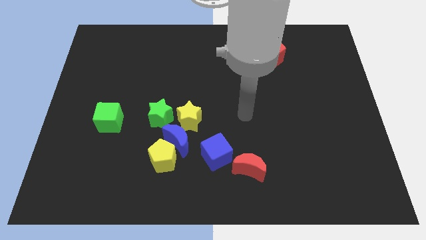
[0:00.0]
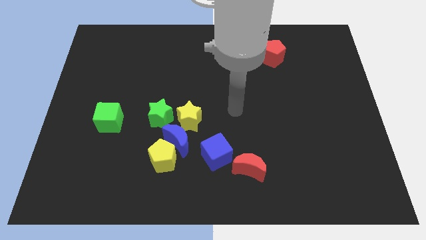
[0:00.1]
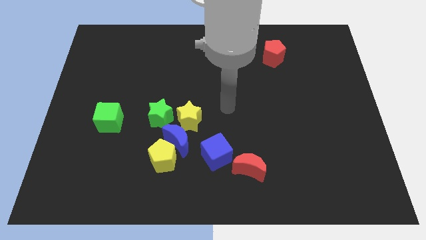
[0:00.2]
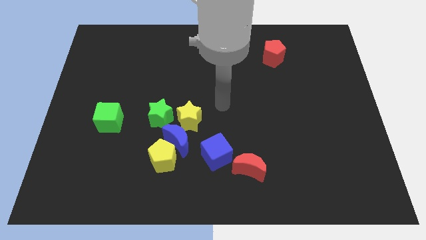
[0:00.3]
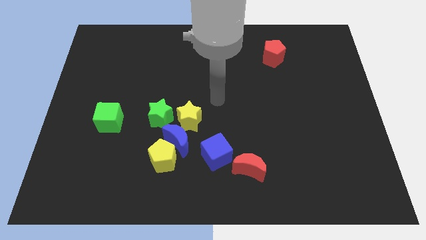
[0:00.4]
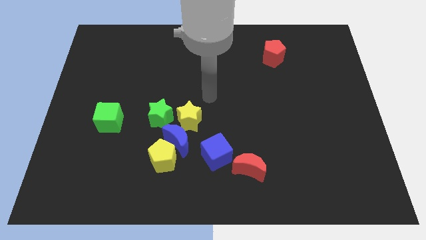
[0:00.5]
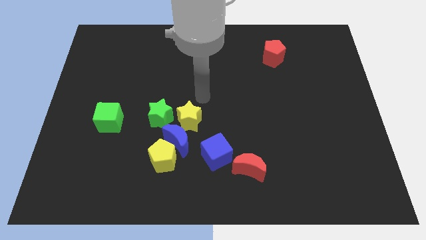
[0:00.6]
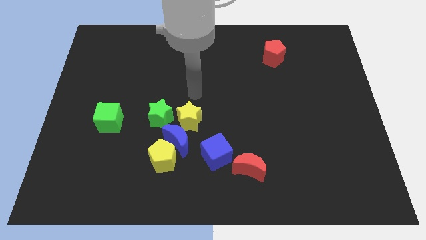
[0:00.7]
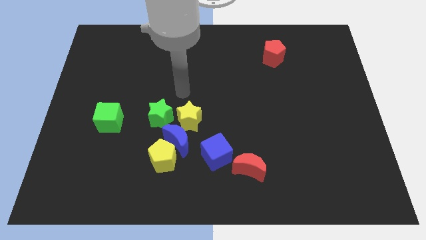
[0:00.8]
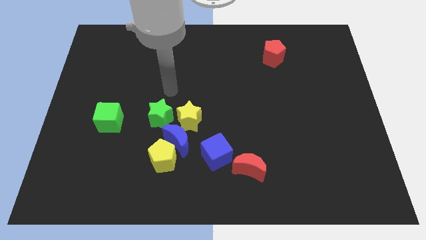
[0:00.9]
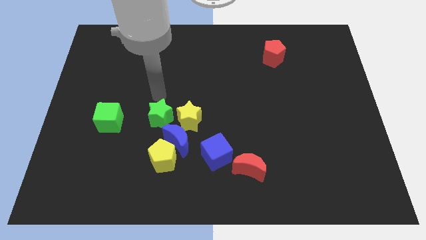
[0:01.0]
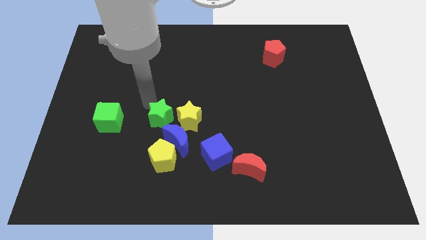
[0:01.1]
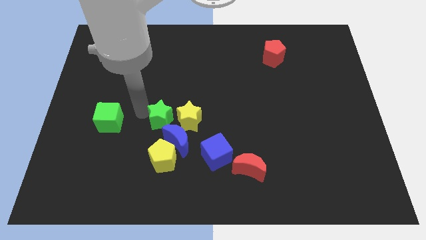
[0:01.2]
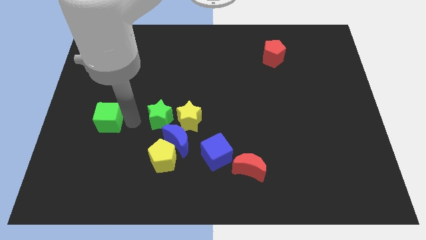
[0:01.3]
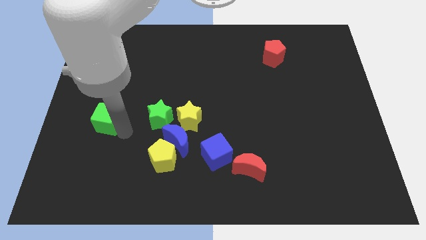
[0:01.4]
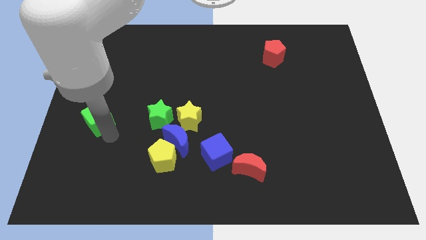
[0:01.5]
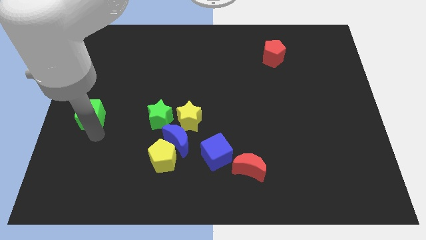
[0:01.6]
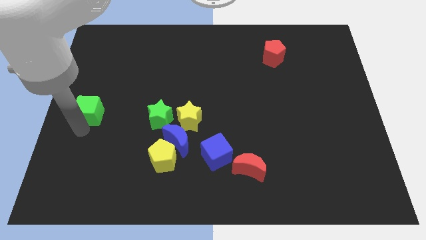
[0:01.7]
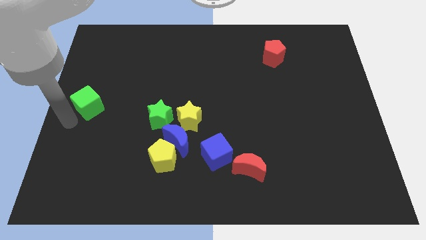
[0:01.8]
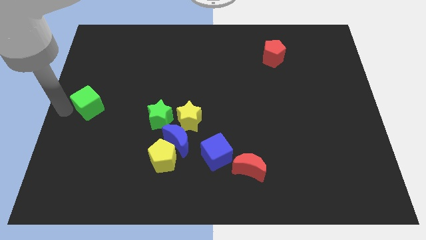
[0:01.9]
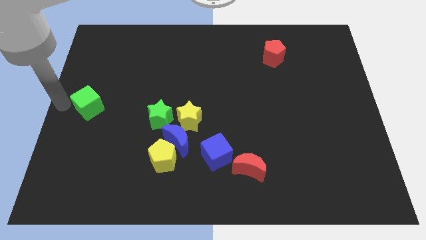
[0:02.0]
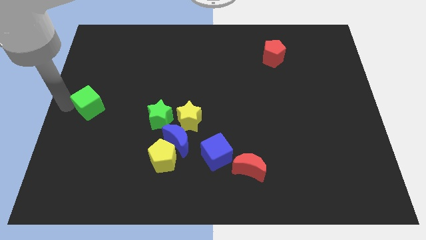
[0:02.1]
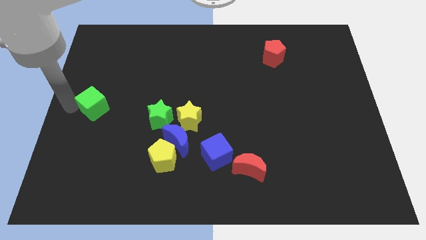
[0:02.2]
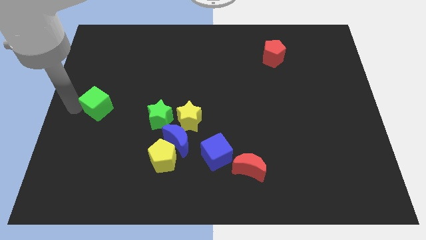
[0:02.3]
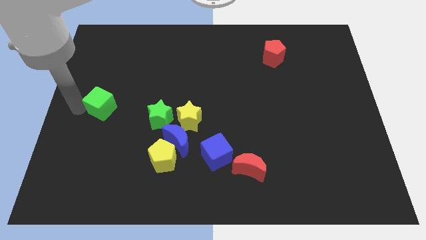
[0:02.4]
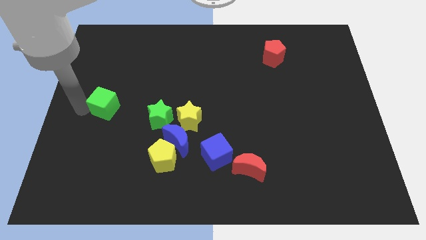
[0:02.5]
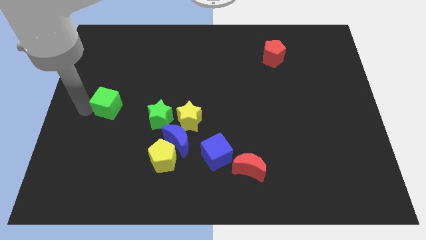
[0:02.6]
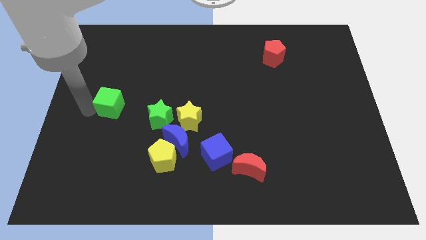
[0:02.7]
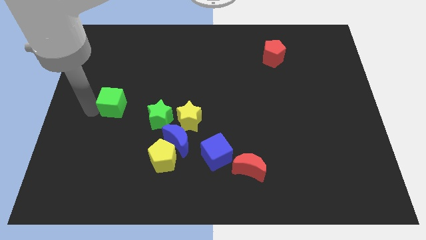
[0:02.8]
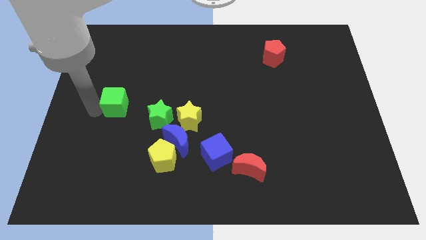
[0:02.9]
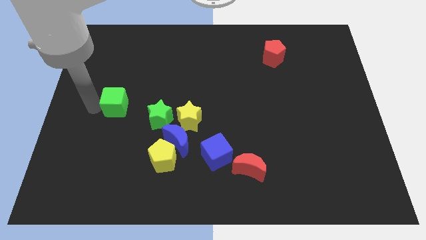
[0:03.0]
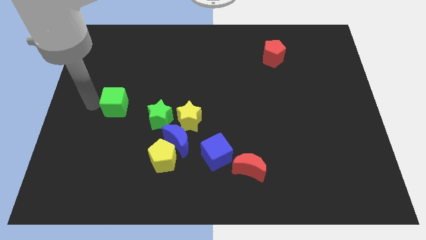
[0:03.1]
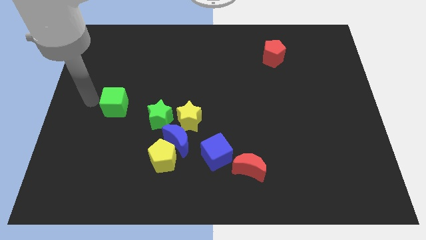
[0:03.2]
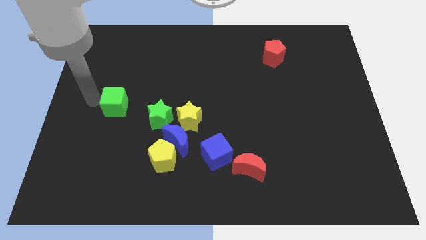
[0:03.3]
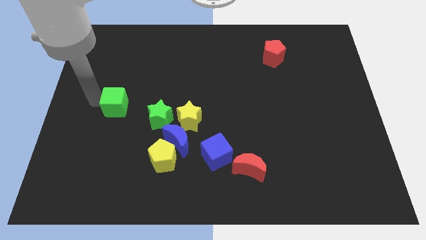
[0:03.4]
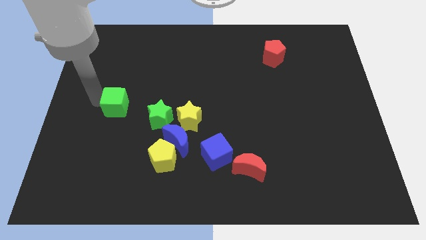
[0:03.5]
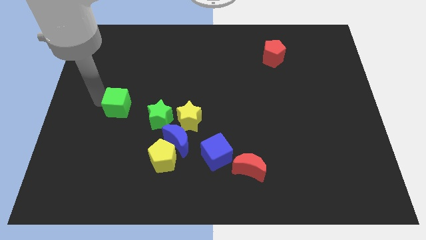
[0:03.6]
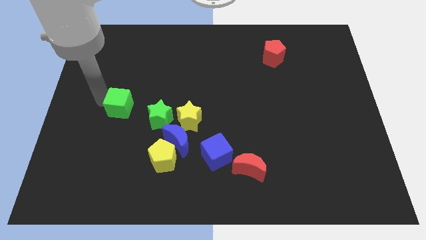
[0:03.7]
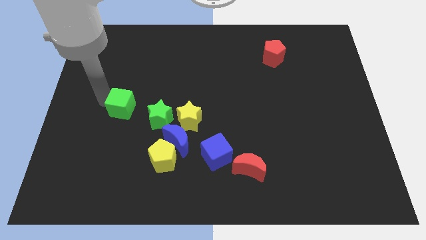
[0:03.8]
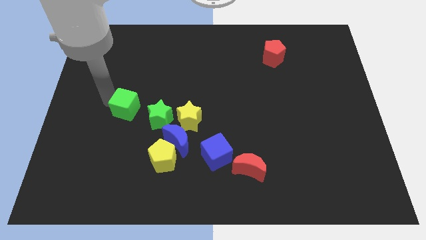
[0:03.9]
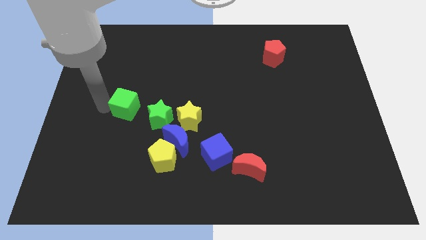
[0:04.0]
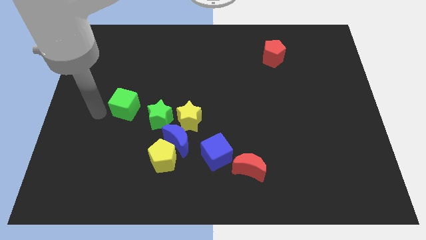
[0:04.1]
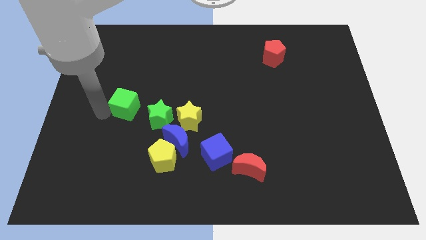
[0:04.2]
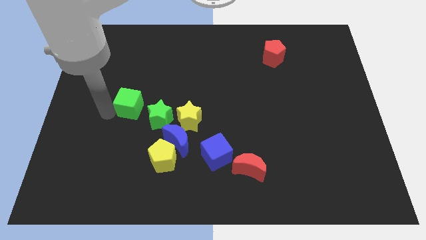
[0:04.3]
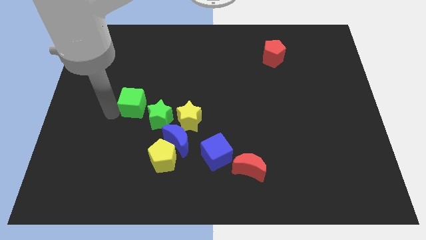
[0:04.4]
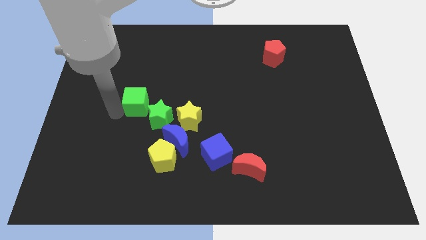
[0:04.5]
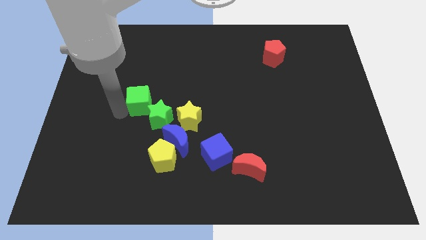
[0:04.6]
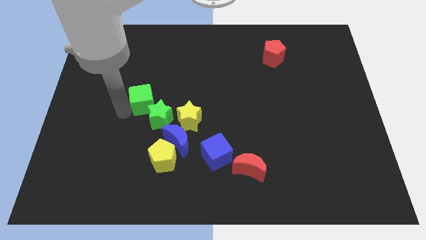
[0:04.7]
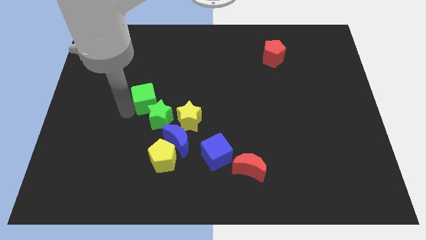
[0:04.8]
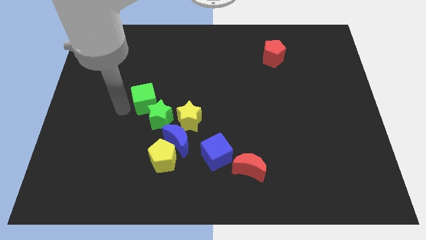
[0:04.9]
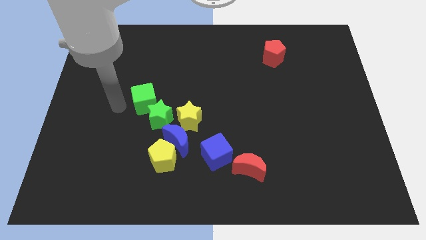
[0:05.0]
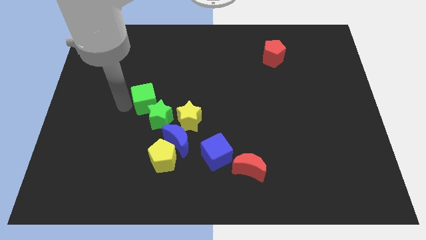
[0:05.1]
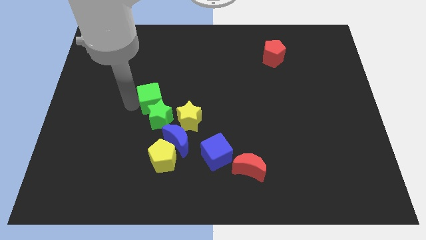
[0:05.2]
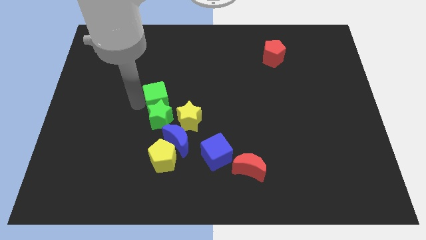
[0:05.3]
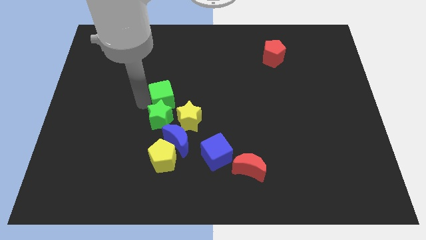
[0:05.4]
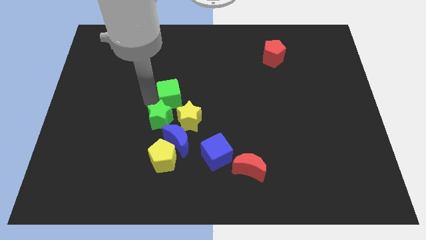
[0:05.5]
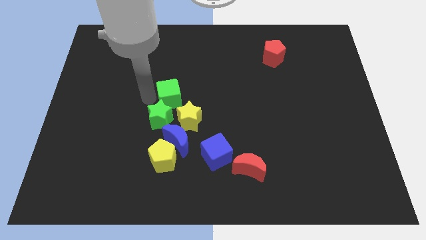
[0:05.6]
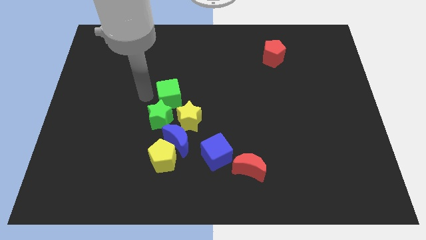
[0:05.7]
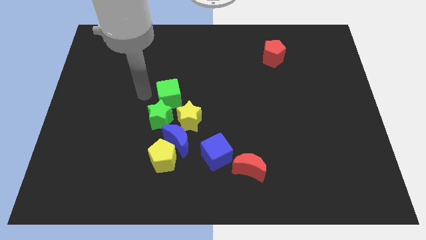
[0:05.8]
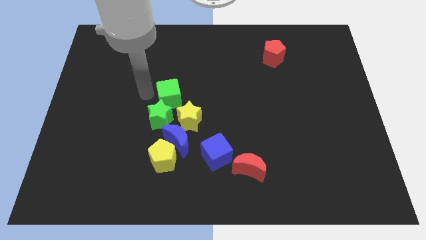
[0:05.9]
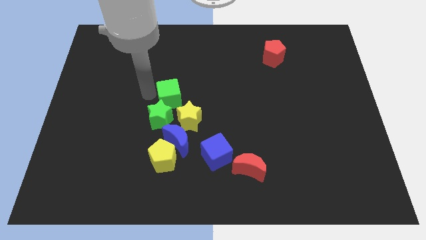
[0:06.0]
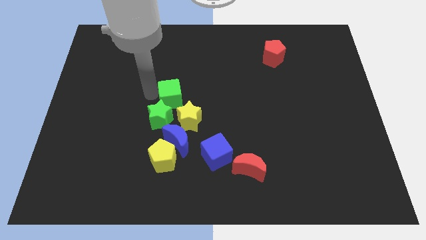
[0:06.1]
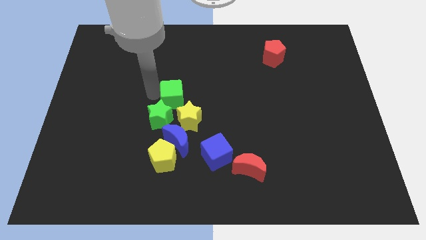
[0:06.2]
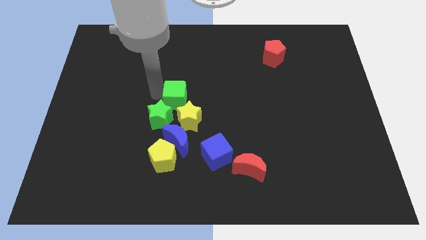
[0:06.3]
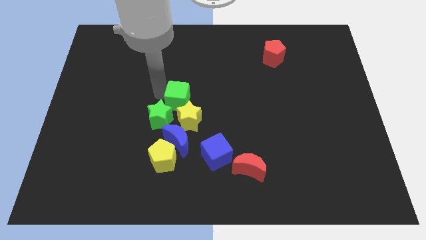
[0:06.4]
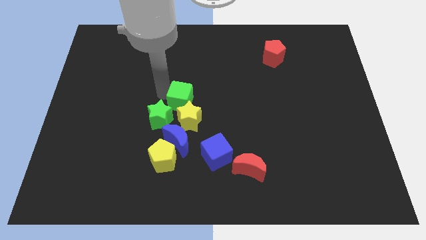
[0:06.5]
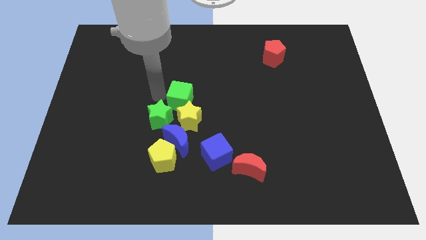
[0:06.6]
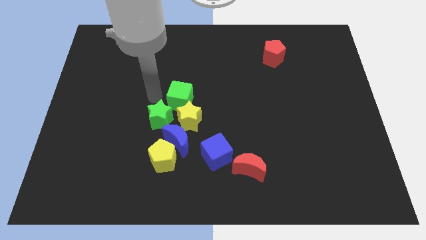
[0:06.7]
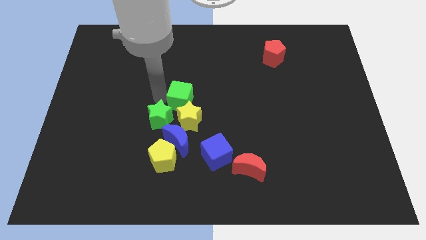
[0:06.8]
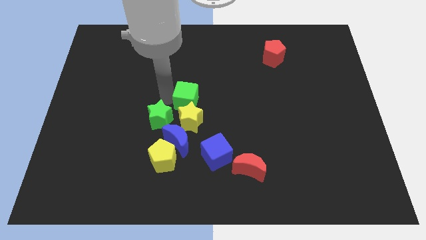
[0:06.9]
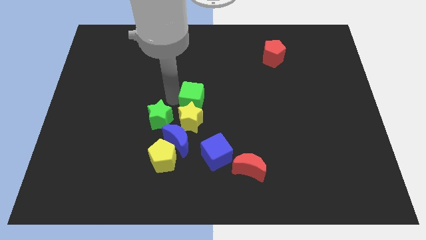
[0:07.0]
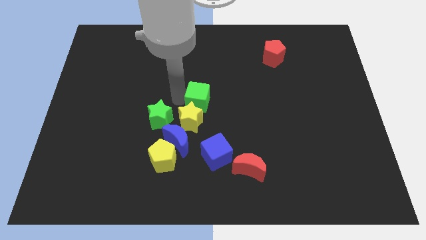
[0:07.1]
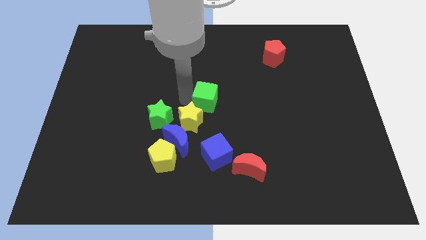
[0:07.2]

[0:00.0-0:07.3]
slide the green cube to the right

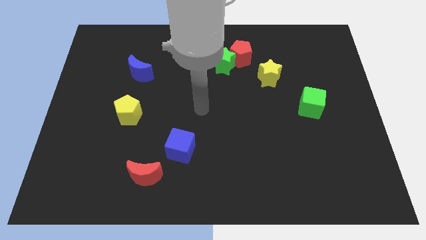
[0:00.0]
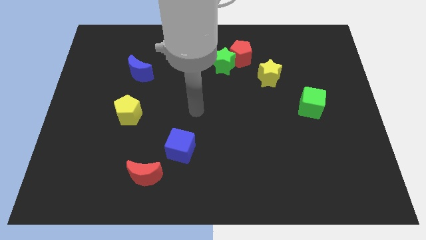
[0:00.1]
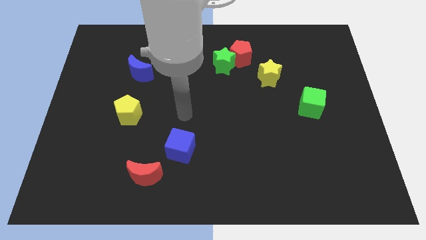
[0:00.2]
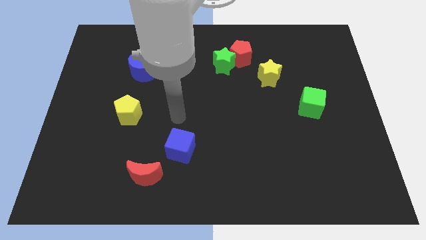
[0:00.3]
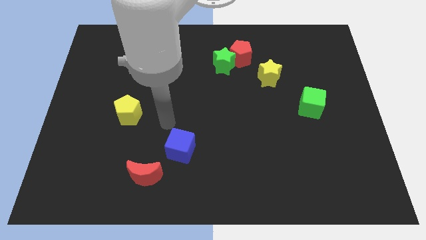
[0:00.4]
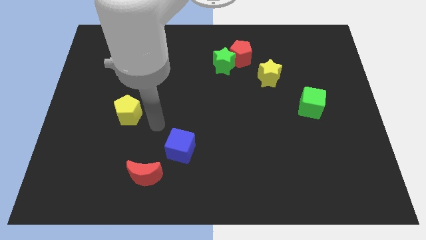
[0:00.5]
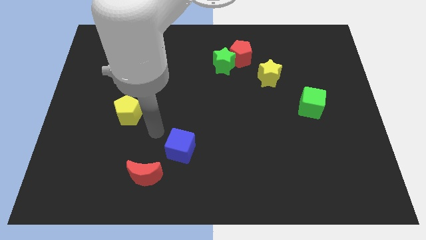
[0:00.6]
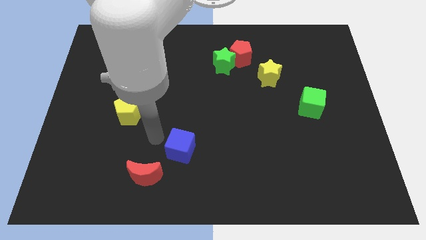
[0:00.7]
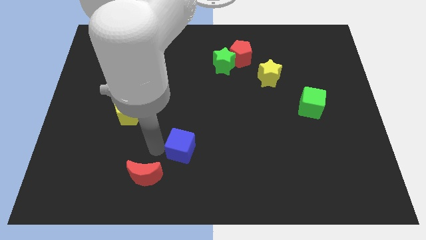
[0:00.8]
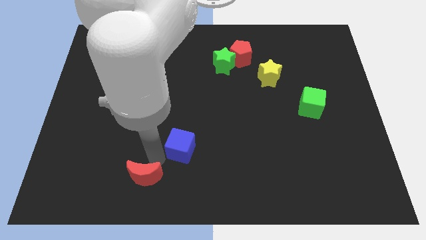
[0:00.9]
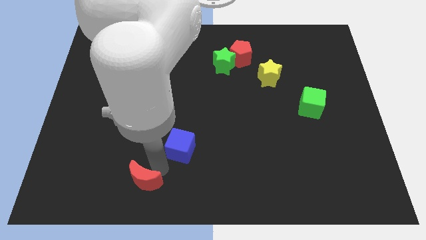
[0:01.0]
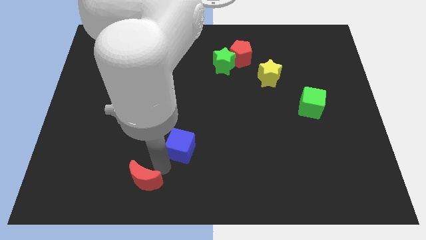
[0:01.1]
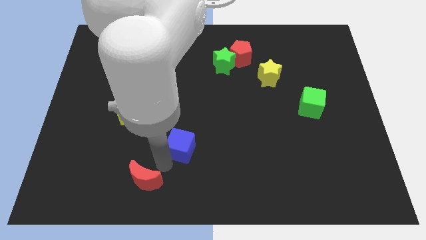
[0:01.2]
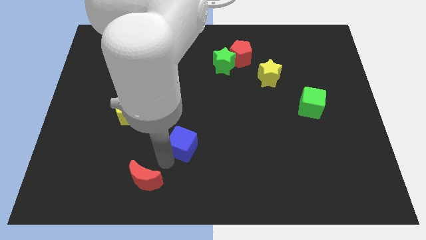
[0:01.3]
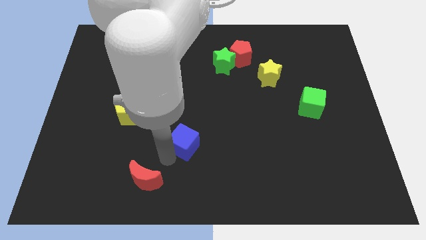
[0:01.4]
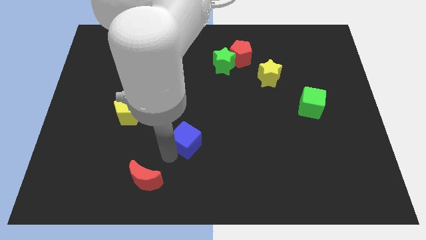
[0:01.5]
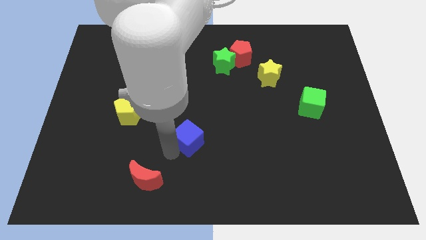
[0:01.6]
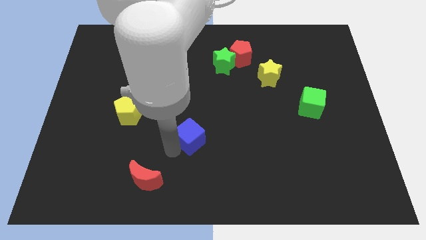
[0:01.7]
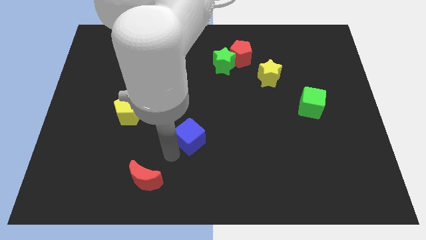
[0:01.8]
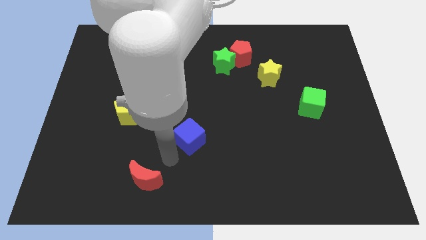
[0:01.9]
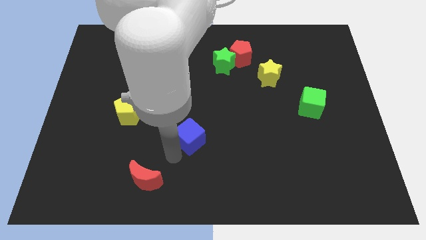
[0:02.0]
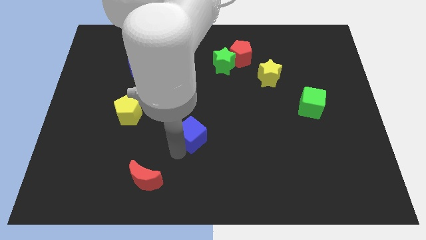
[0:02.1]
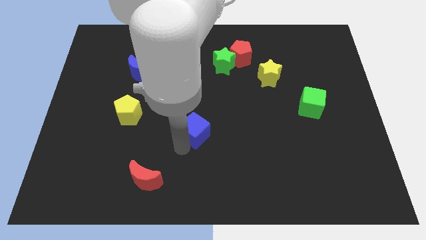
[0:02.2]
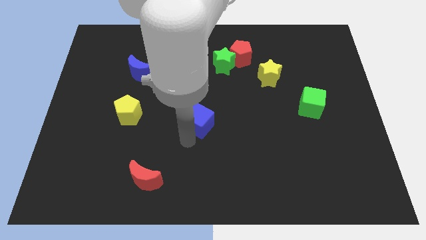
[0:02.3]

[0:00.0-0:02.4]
slightly push the blue cube upwards and right
